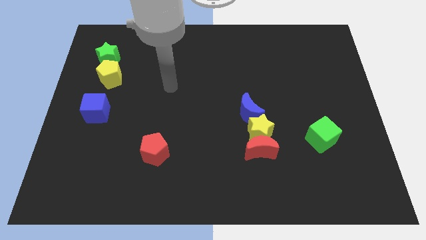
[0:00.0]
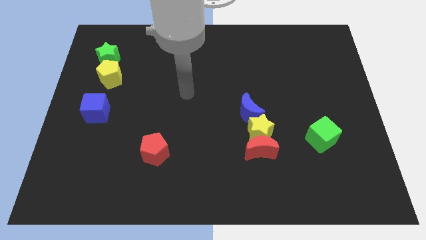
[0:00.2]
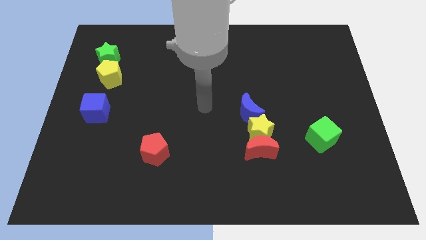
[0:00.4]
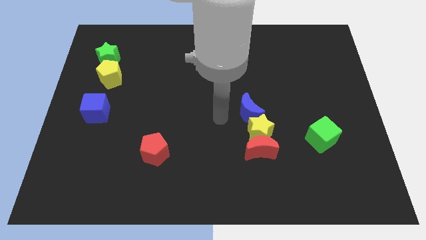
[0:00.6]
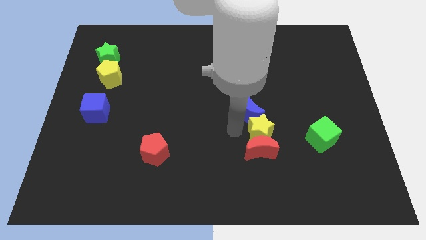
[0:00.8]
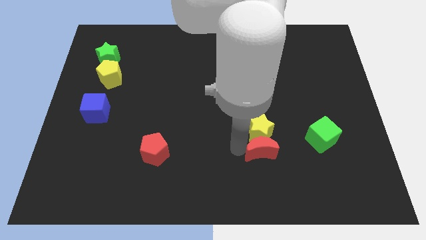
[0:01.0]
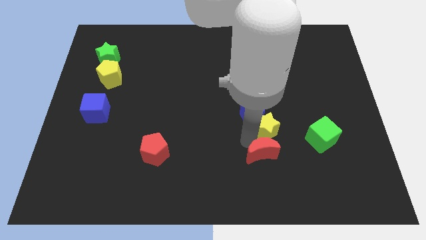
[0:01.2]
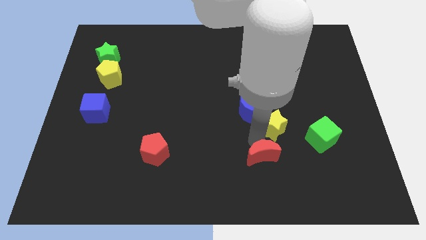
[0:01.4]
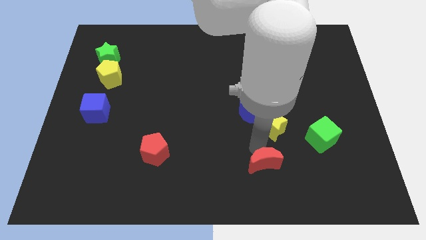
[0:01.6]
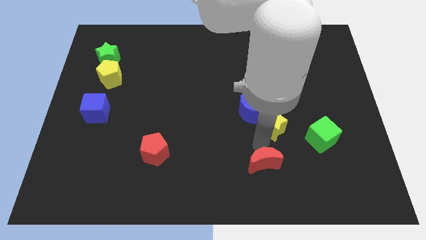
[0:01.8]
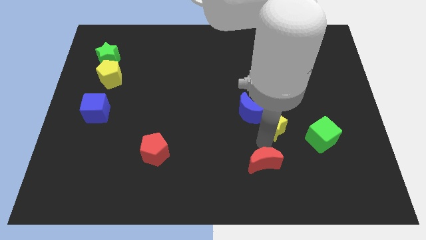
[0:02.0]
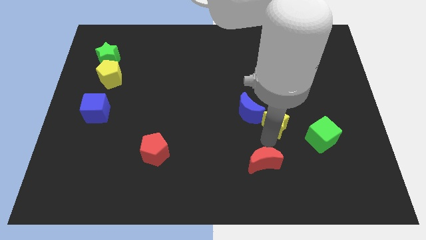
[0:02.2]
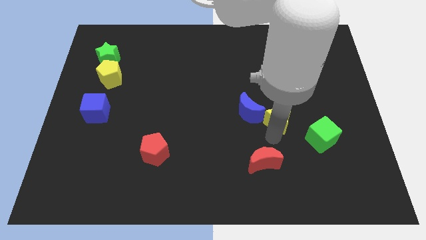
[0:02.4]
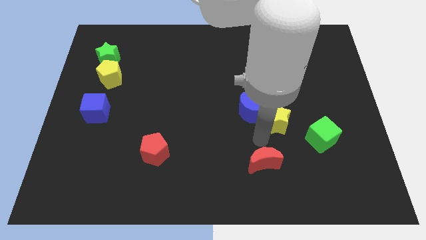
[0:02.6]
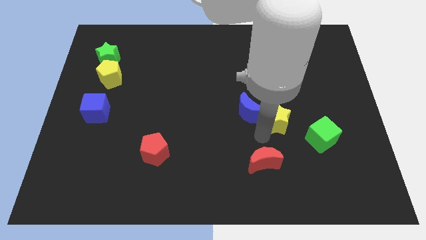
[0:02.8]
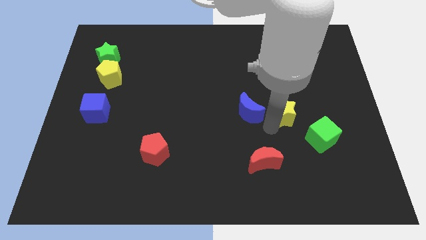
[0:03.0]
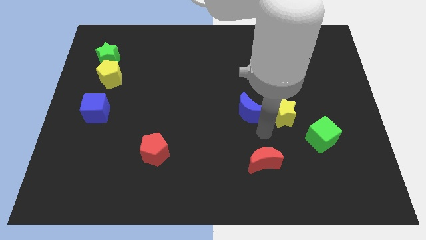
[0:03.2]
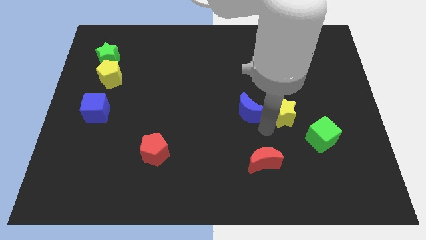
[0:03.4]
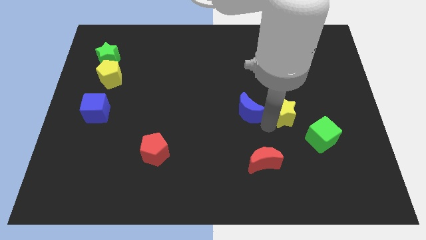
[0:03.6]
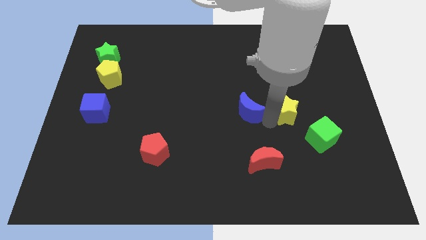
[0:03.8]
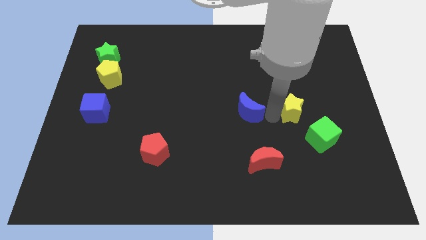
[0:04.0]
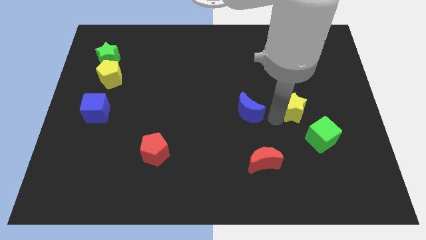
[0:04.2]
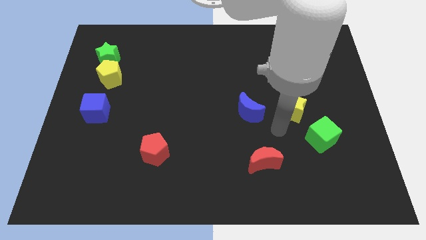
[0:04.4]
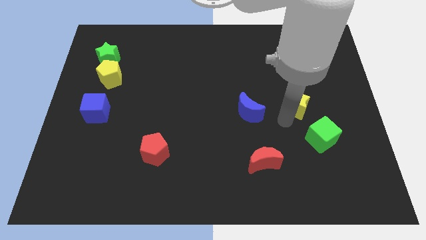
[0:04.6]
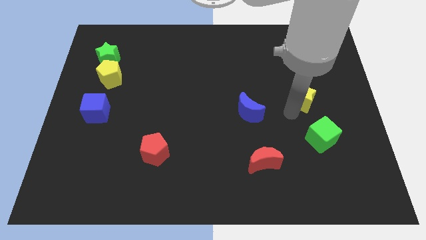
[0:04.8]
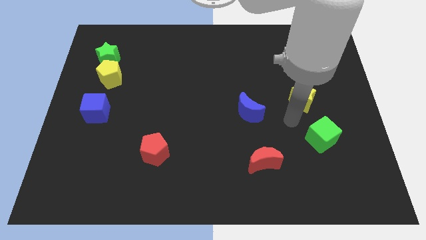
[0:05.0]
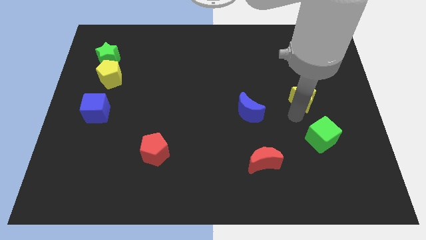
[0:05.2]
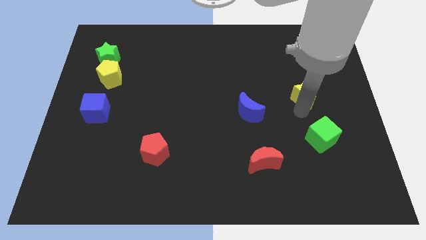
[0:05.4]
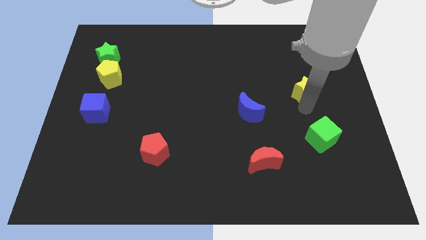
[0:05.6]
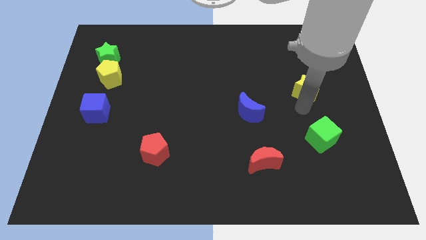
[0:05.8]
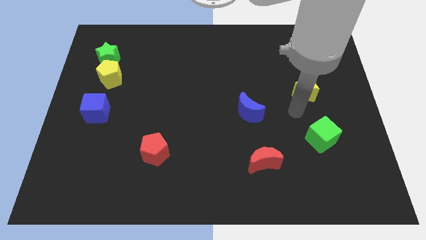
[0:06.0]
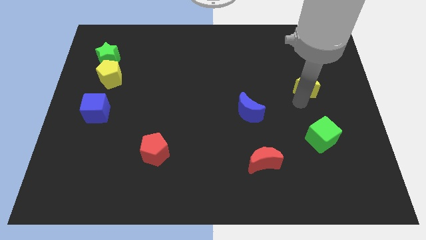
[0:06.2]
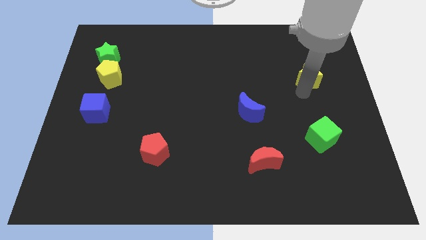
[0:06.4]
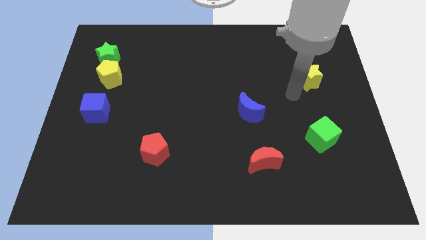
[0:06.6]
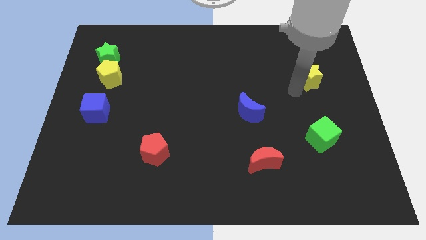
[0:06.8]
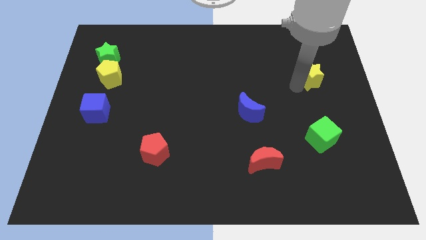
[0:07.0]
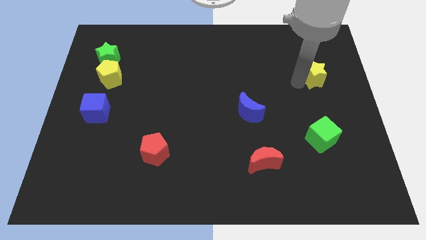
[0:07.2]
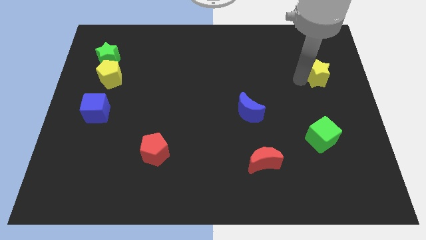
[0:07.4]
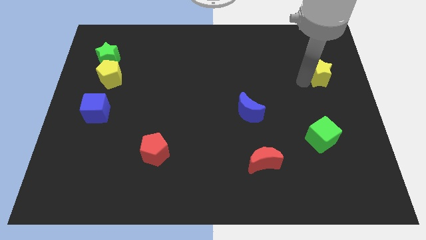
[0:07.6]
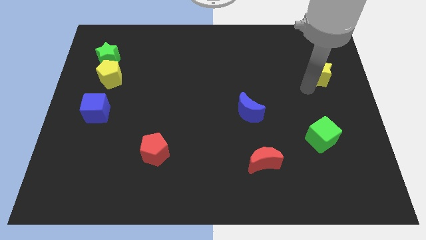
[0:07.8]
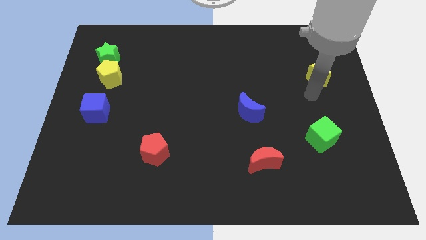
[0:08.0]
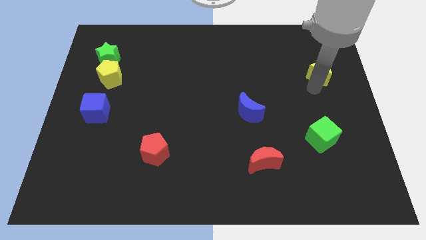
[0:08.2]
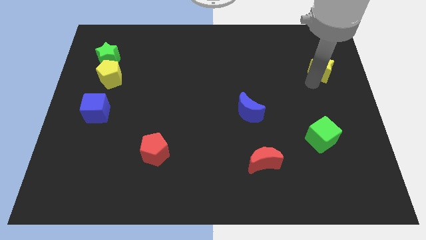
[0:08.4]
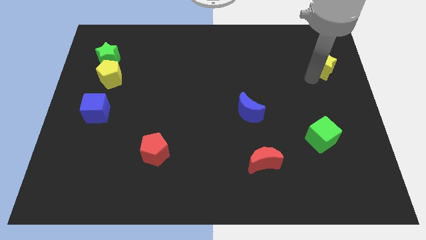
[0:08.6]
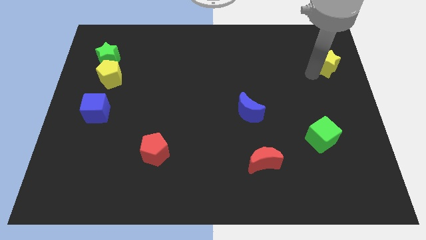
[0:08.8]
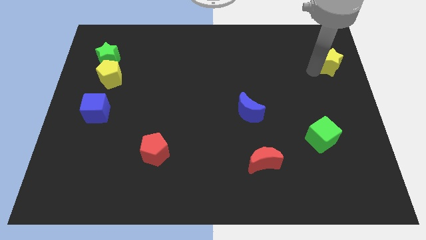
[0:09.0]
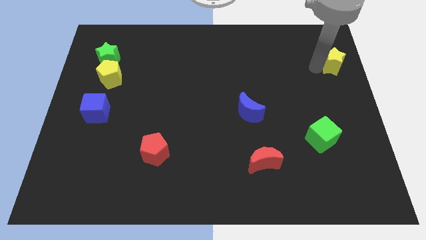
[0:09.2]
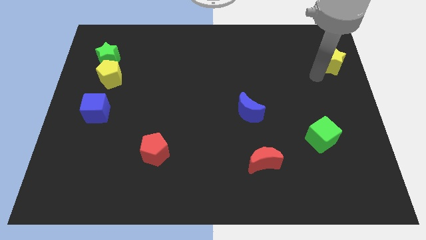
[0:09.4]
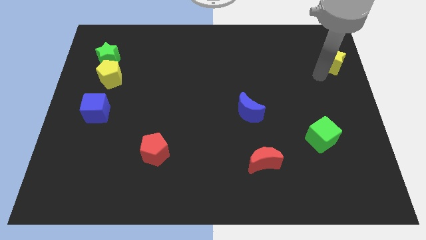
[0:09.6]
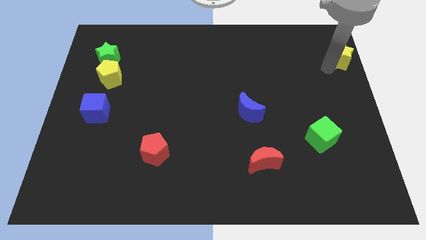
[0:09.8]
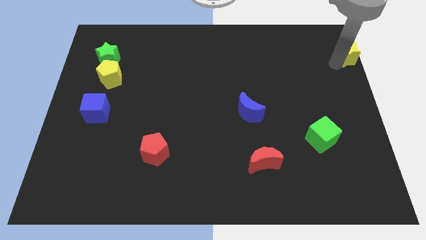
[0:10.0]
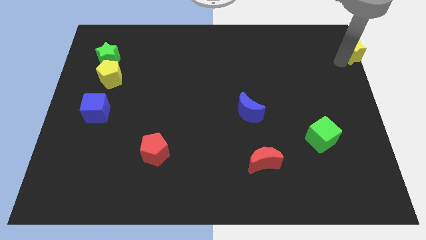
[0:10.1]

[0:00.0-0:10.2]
move the yellow star to the upper right corner

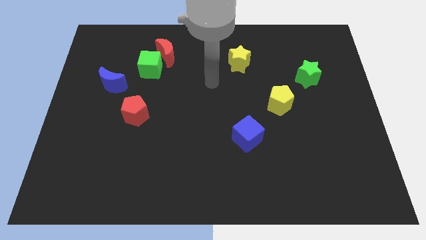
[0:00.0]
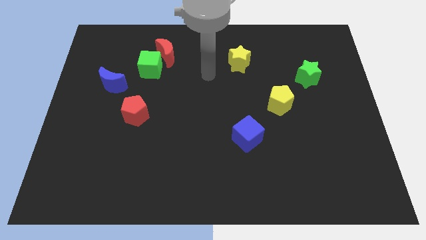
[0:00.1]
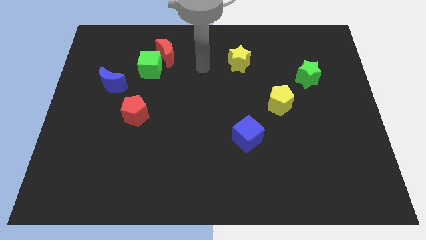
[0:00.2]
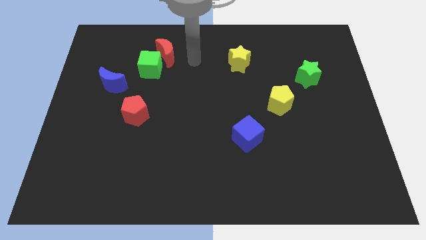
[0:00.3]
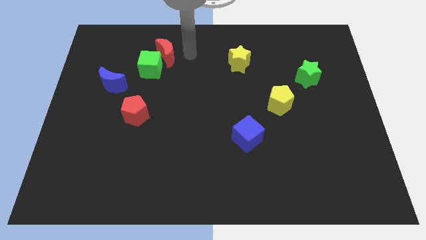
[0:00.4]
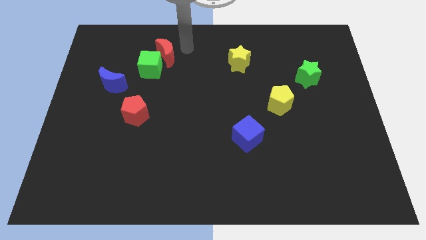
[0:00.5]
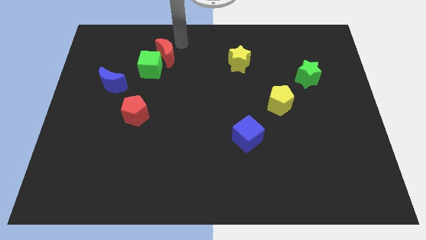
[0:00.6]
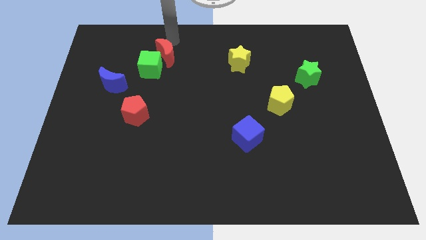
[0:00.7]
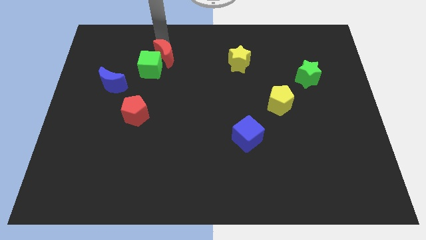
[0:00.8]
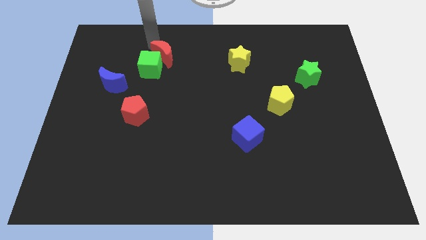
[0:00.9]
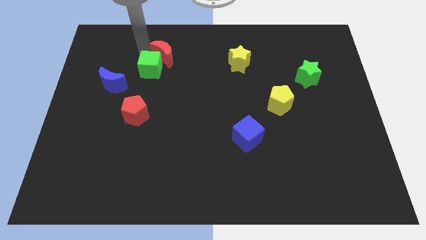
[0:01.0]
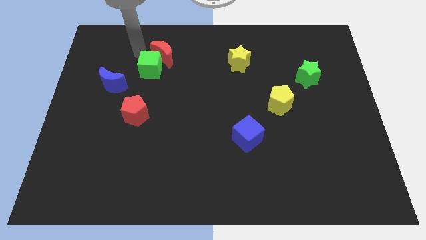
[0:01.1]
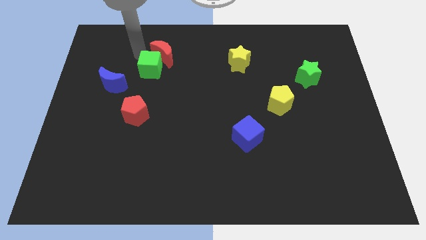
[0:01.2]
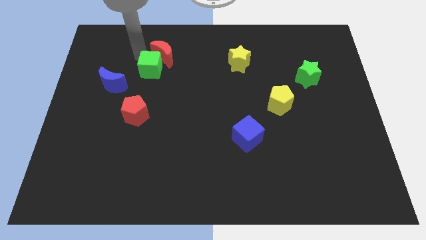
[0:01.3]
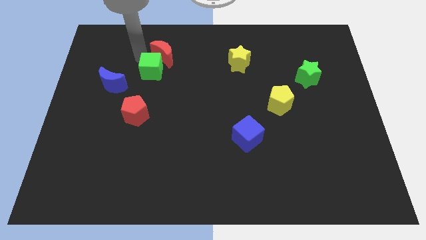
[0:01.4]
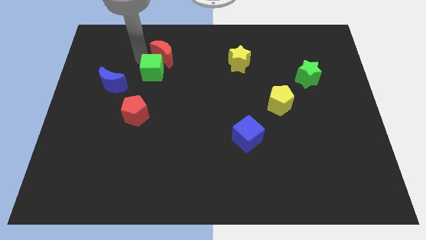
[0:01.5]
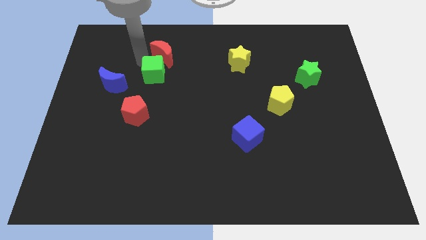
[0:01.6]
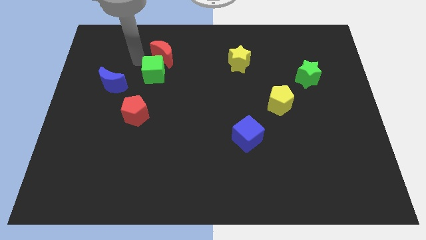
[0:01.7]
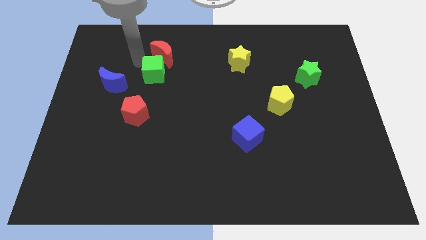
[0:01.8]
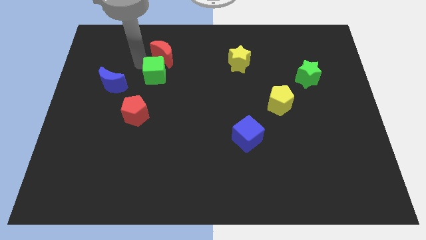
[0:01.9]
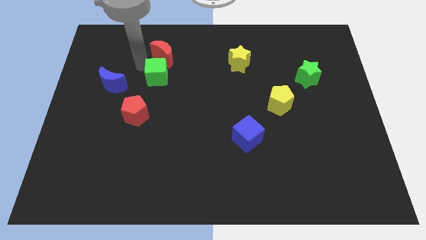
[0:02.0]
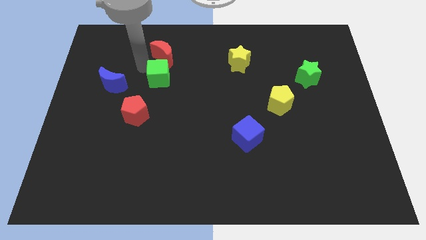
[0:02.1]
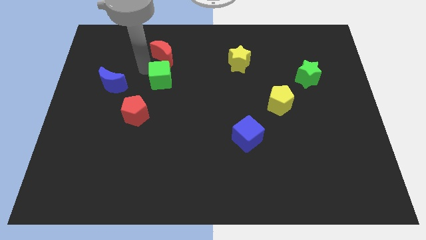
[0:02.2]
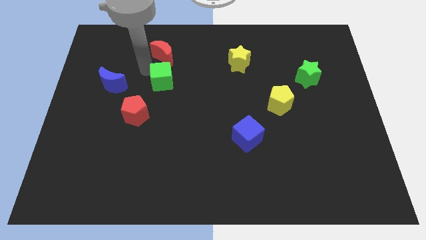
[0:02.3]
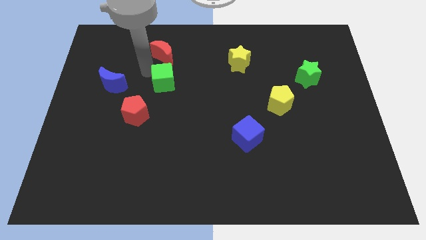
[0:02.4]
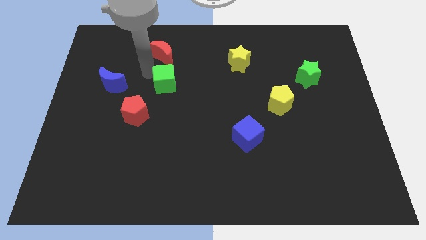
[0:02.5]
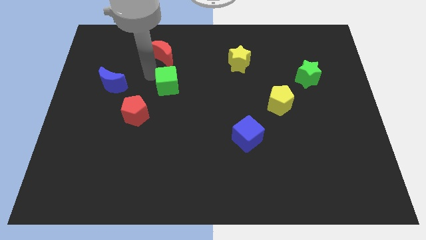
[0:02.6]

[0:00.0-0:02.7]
move the green cube to the center
